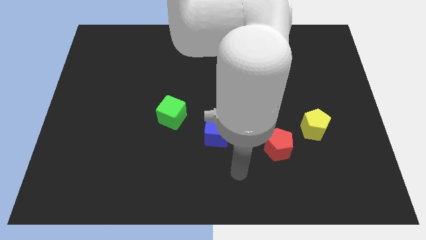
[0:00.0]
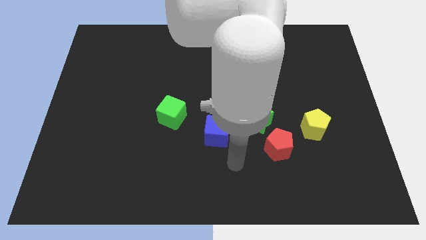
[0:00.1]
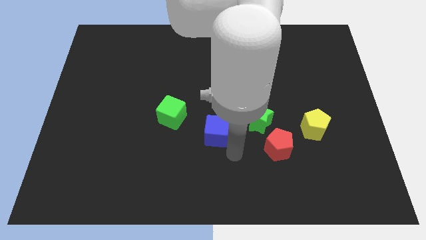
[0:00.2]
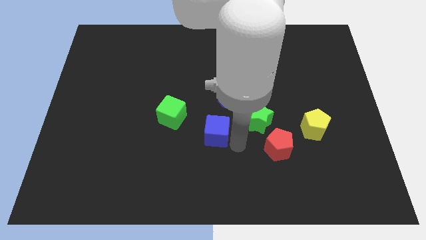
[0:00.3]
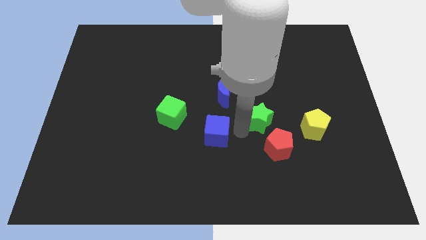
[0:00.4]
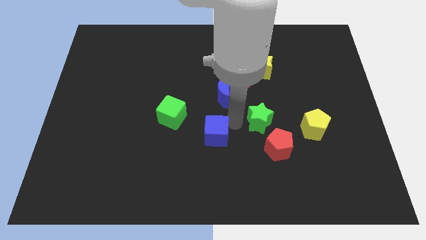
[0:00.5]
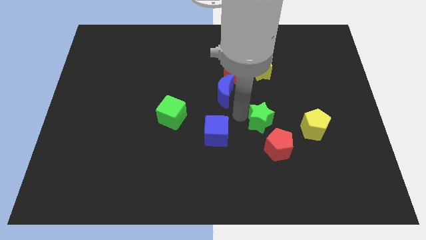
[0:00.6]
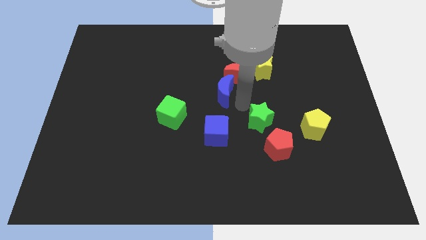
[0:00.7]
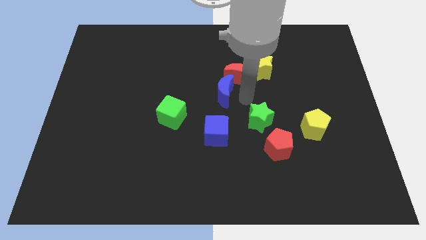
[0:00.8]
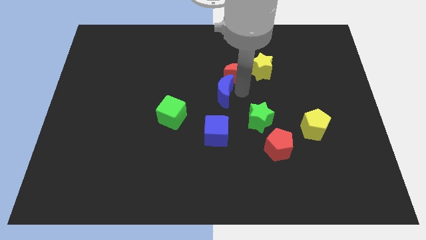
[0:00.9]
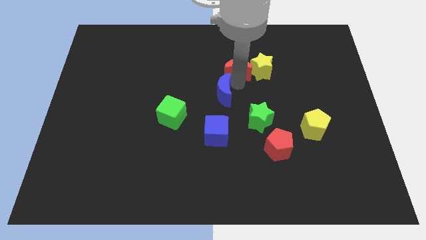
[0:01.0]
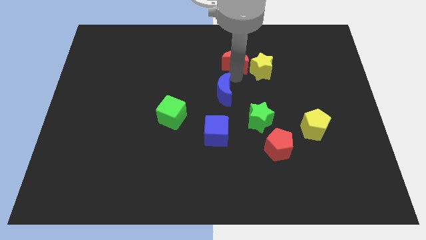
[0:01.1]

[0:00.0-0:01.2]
pull the blue moon apart from the red moon

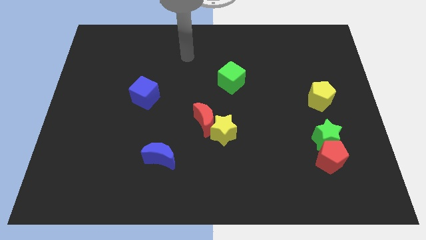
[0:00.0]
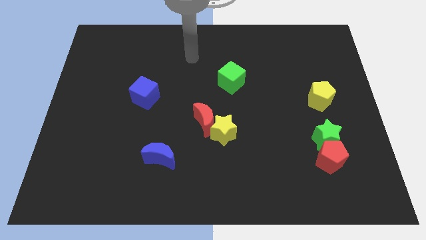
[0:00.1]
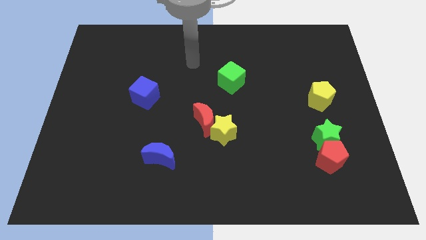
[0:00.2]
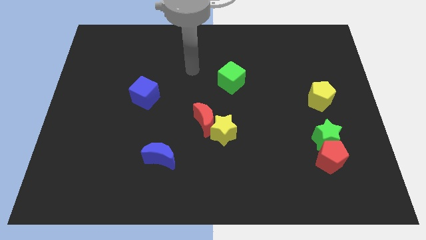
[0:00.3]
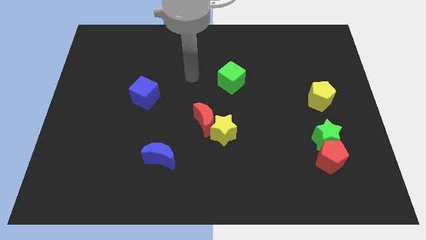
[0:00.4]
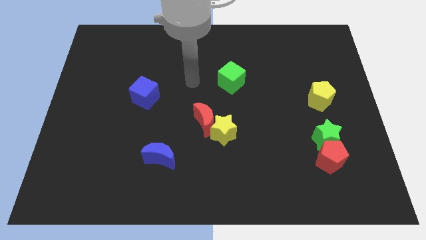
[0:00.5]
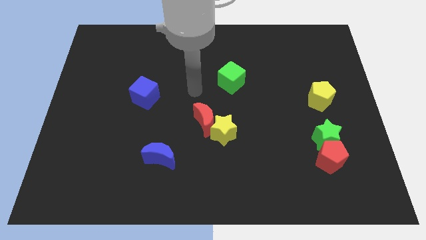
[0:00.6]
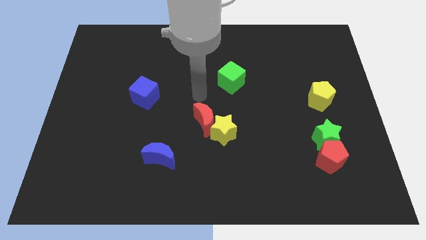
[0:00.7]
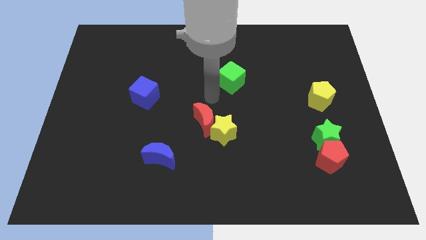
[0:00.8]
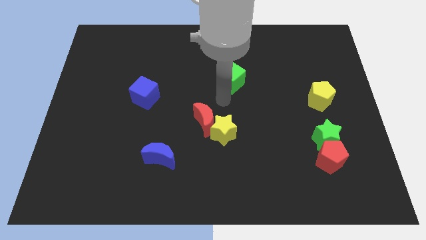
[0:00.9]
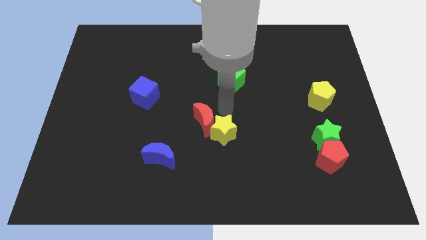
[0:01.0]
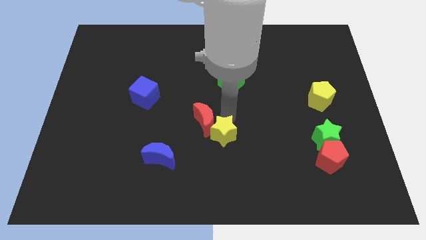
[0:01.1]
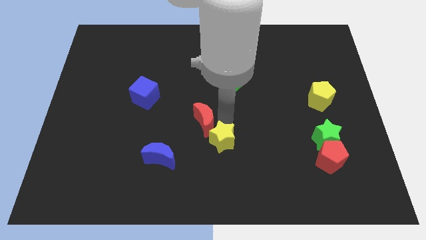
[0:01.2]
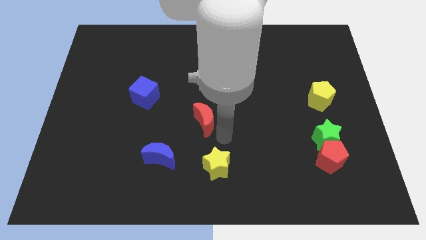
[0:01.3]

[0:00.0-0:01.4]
pull the red moon apart from the yellow star

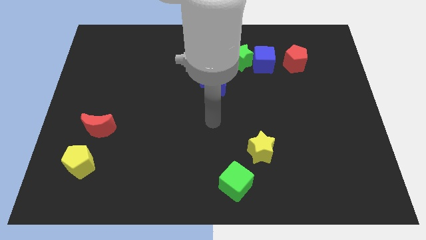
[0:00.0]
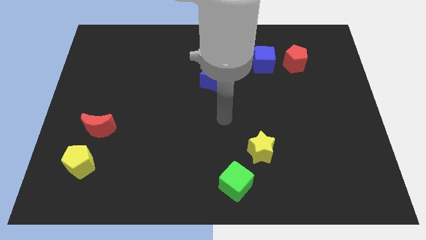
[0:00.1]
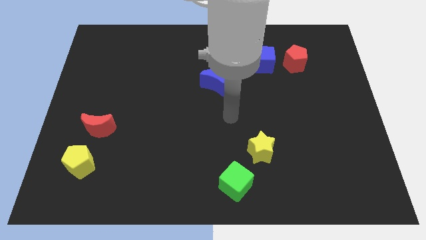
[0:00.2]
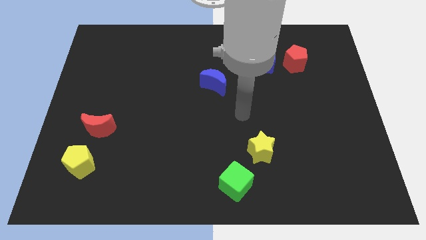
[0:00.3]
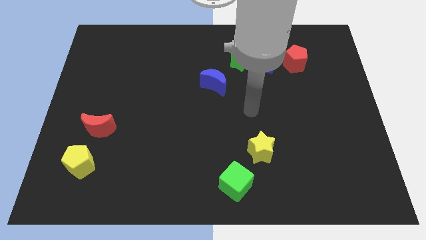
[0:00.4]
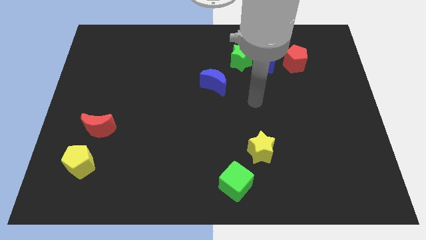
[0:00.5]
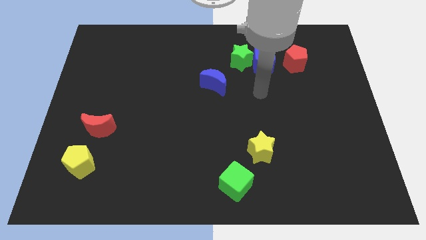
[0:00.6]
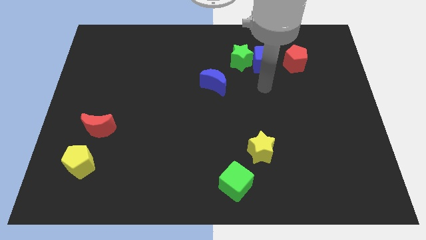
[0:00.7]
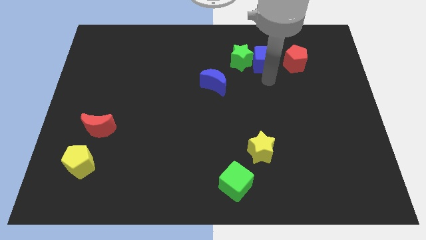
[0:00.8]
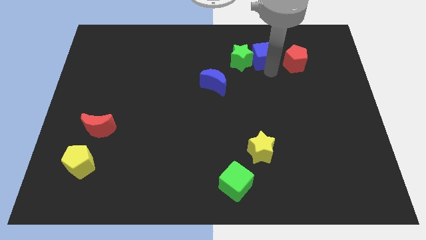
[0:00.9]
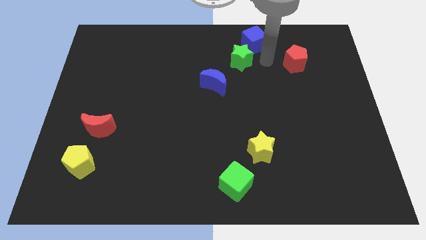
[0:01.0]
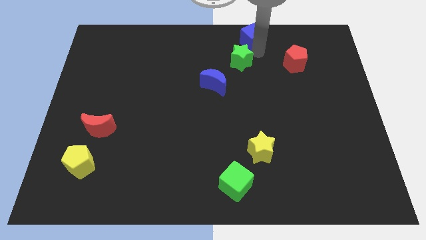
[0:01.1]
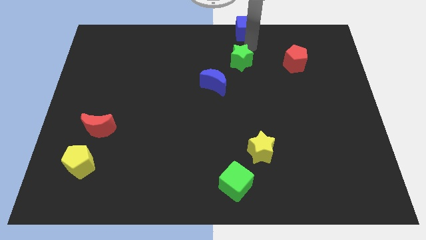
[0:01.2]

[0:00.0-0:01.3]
move the green star away from the blue cube

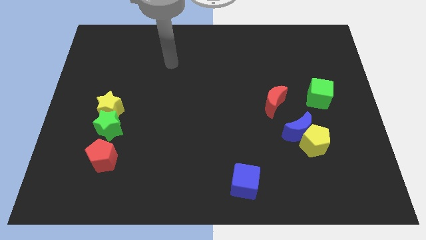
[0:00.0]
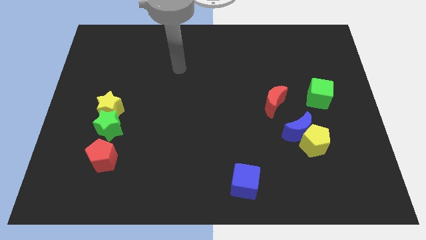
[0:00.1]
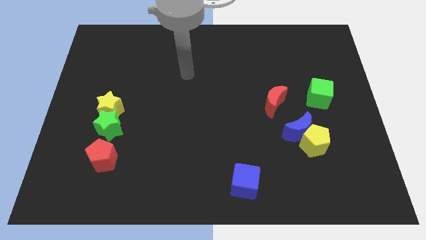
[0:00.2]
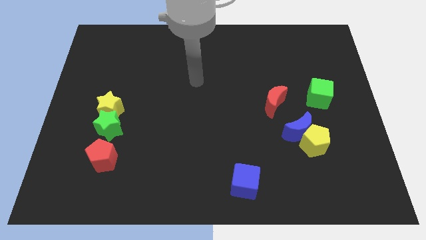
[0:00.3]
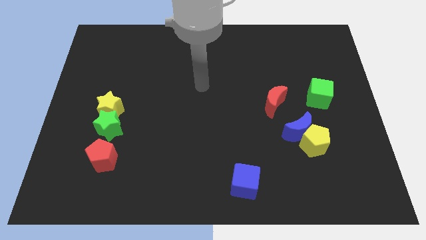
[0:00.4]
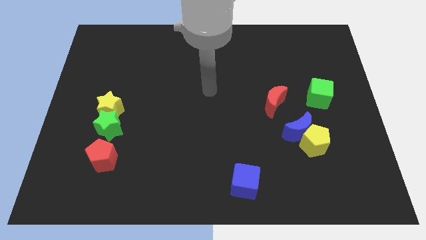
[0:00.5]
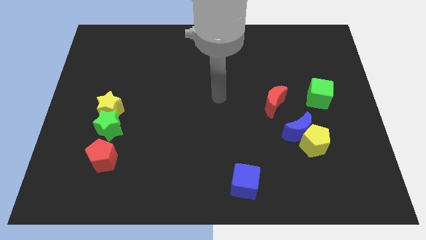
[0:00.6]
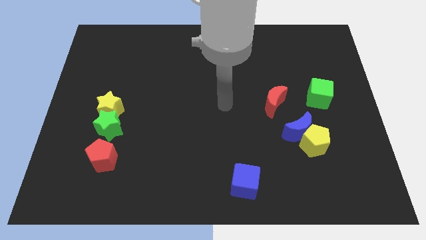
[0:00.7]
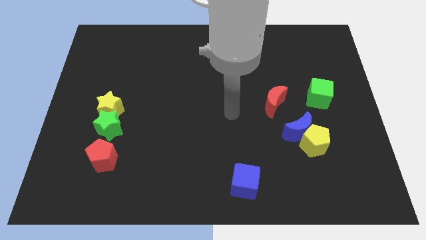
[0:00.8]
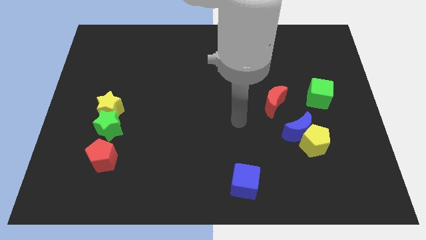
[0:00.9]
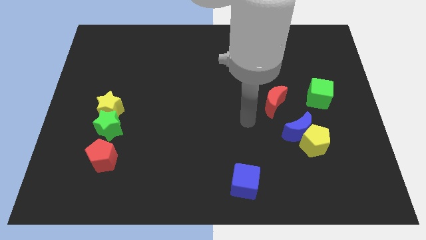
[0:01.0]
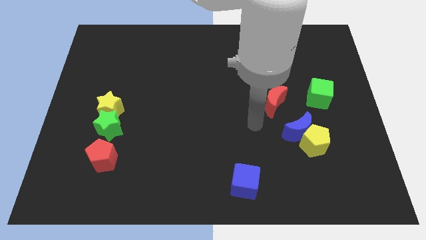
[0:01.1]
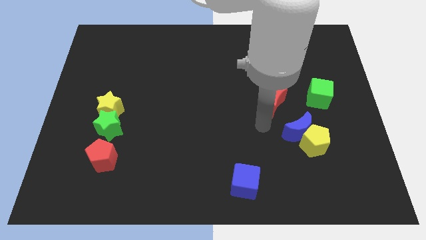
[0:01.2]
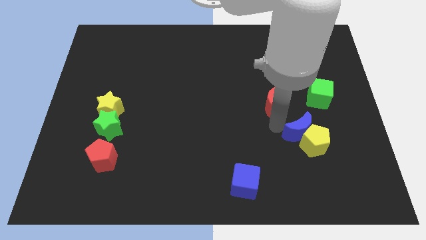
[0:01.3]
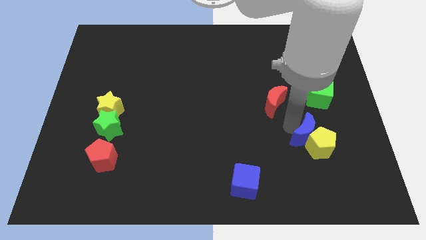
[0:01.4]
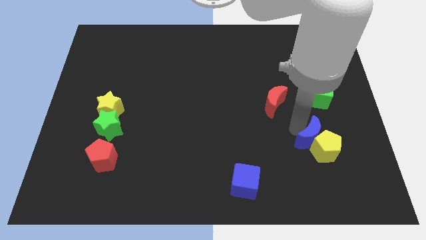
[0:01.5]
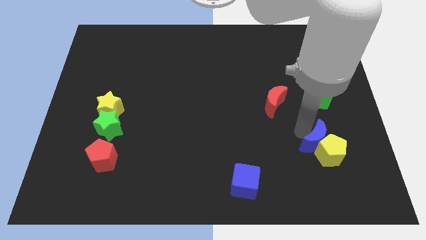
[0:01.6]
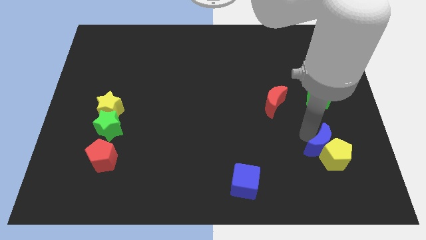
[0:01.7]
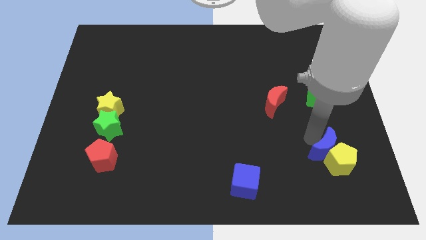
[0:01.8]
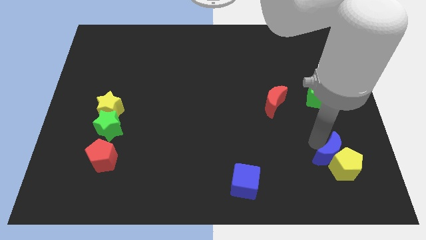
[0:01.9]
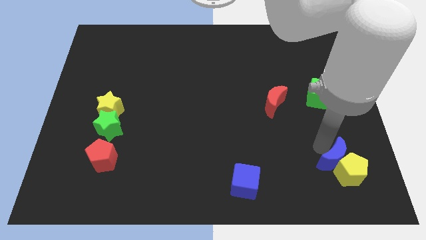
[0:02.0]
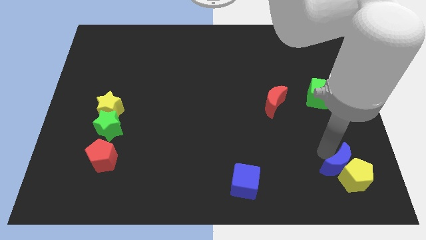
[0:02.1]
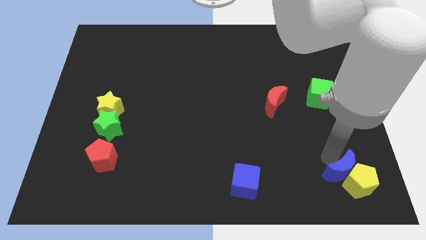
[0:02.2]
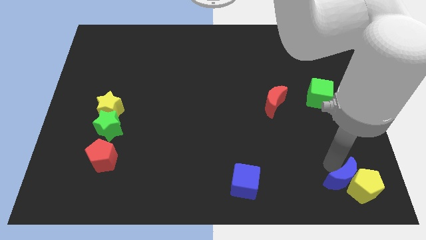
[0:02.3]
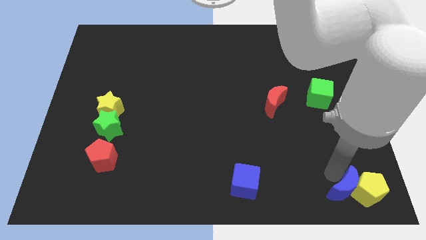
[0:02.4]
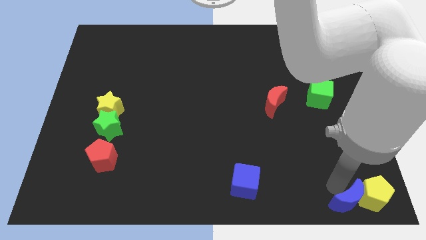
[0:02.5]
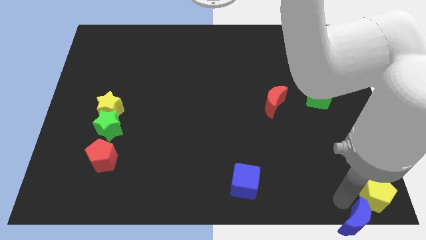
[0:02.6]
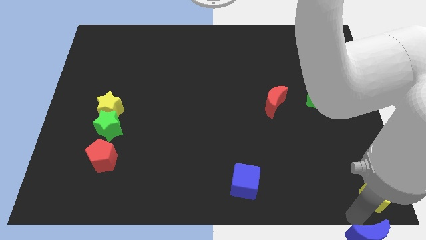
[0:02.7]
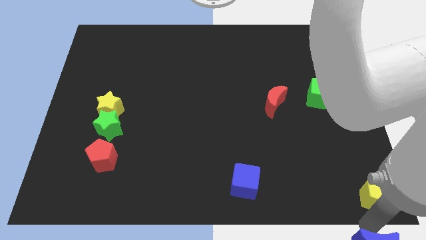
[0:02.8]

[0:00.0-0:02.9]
separate the yellow pentagon from the blue moon

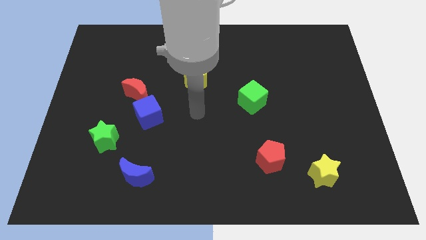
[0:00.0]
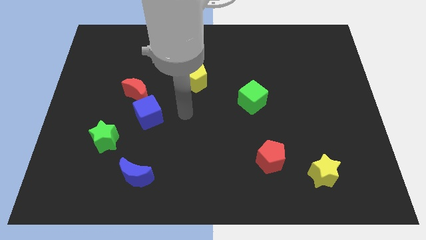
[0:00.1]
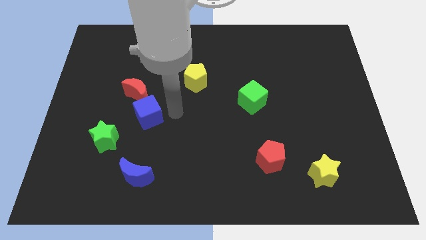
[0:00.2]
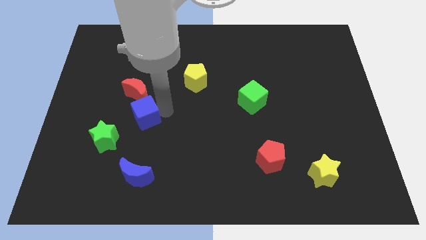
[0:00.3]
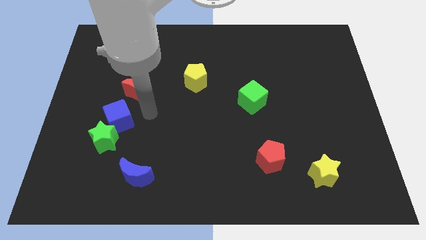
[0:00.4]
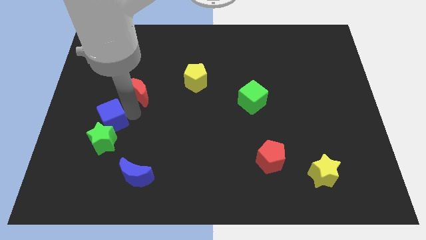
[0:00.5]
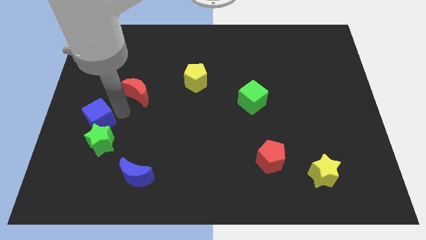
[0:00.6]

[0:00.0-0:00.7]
separate the red moon from the blue cube

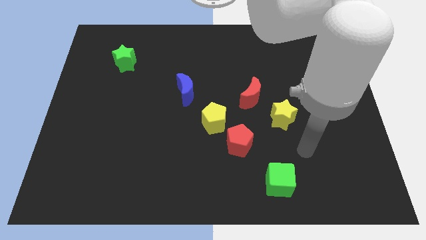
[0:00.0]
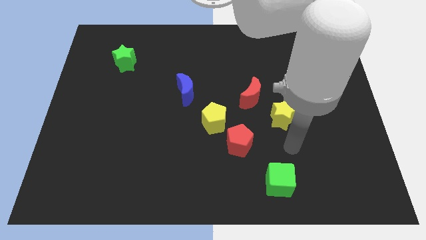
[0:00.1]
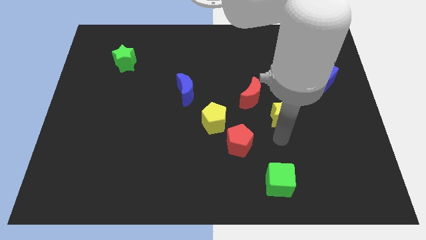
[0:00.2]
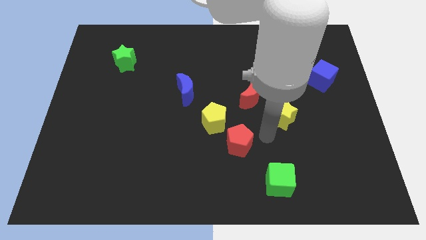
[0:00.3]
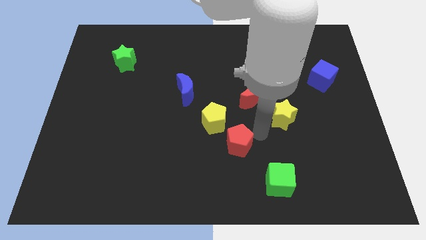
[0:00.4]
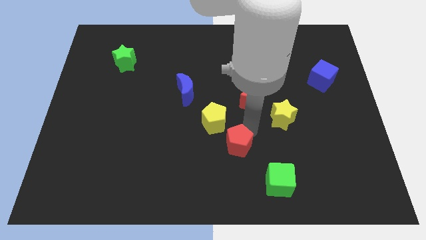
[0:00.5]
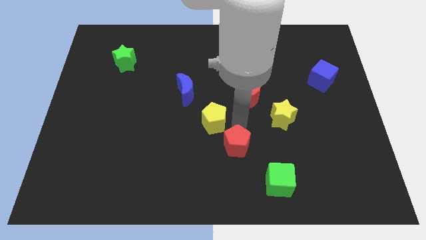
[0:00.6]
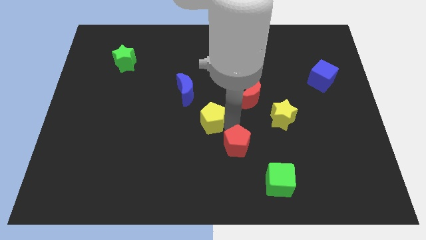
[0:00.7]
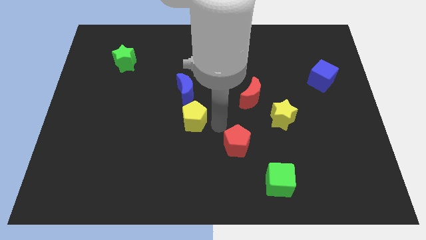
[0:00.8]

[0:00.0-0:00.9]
separate the red pentagon from the yellow pentagon

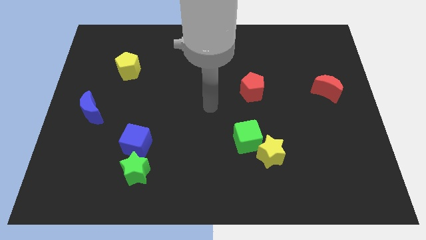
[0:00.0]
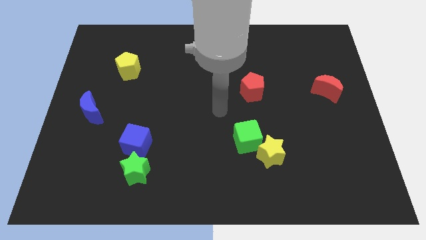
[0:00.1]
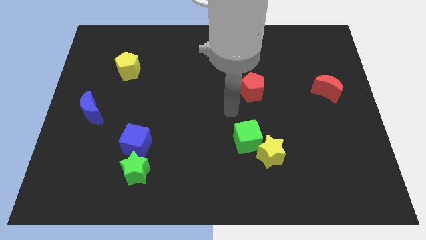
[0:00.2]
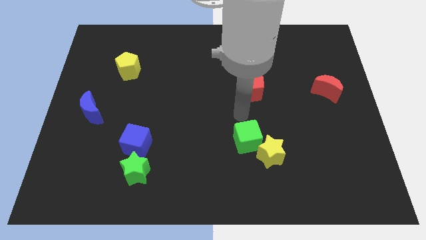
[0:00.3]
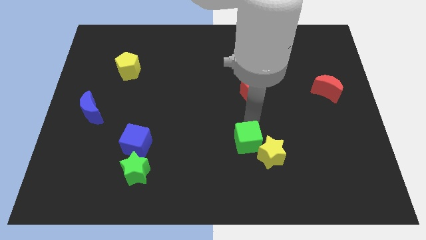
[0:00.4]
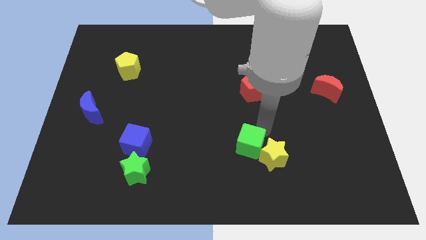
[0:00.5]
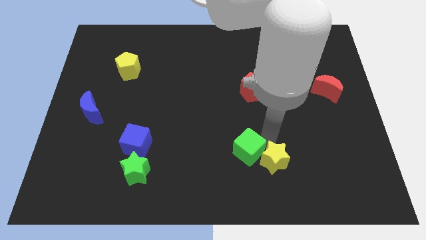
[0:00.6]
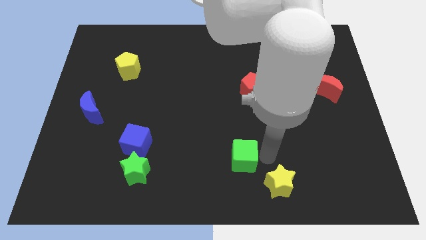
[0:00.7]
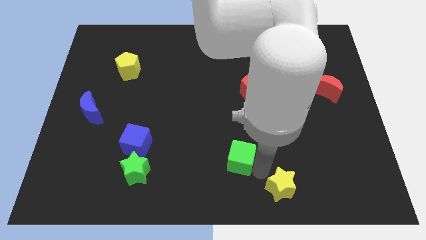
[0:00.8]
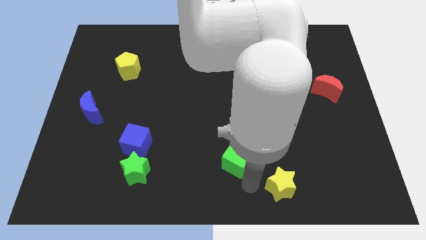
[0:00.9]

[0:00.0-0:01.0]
move the green cube away from the yellow star
